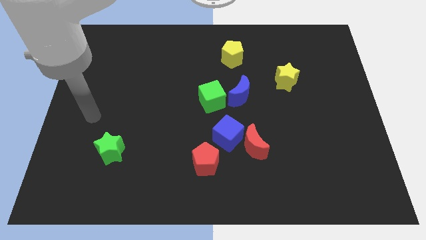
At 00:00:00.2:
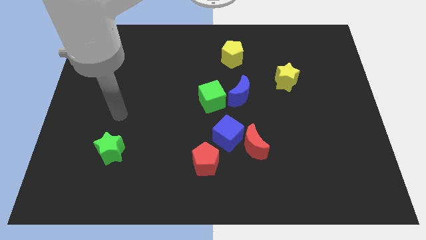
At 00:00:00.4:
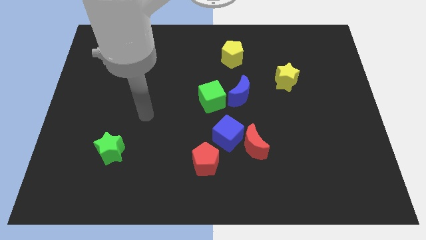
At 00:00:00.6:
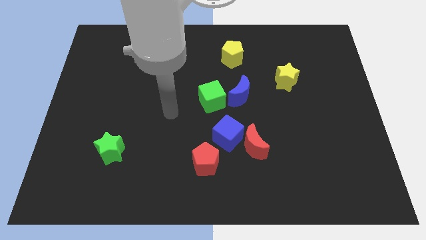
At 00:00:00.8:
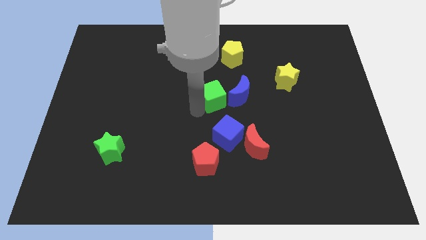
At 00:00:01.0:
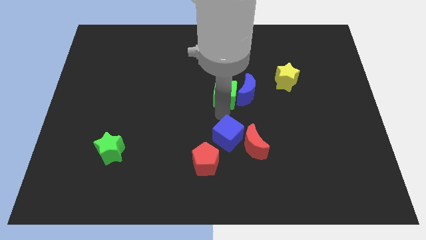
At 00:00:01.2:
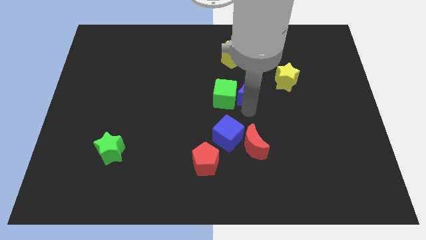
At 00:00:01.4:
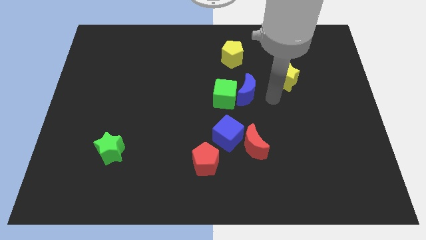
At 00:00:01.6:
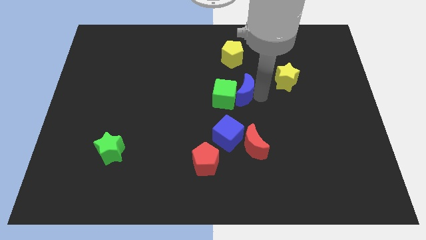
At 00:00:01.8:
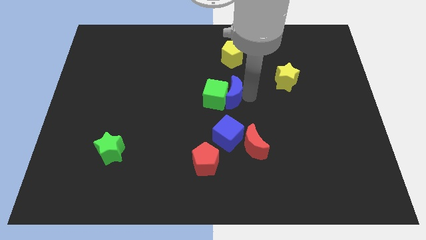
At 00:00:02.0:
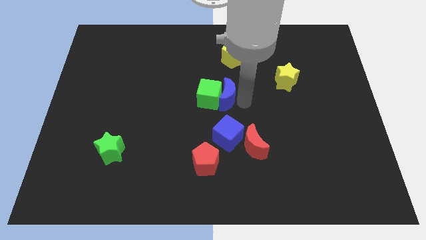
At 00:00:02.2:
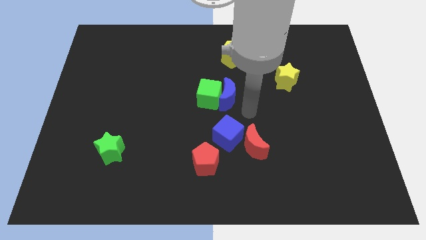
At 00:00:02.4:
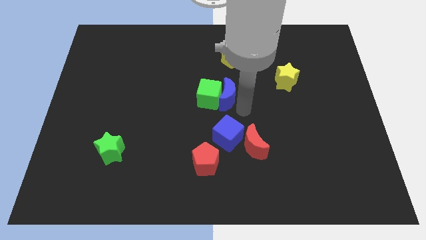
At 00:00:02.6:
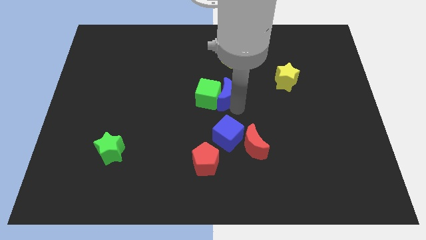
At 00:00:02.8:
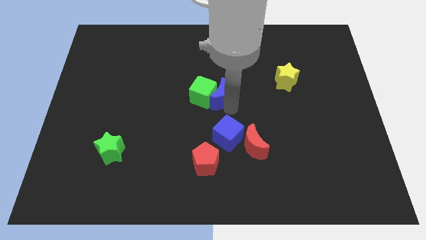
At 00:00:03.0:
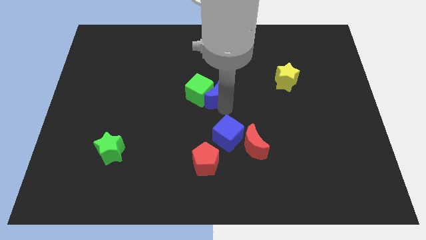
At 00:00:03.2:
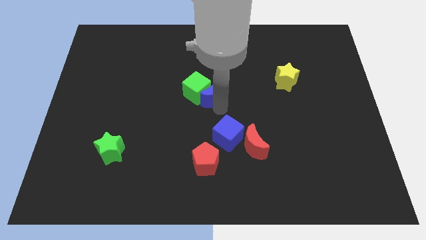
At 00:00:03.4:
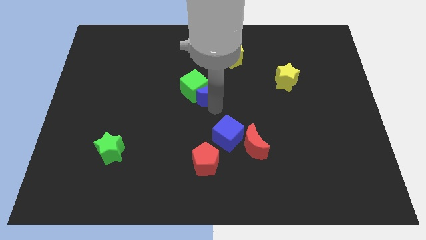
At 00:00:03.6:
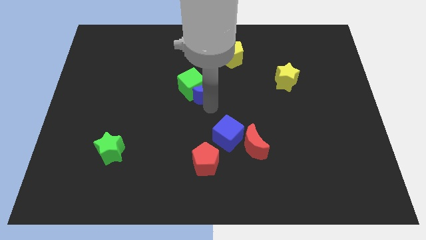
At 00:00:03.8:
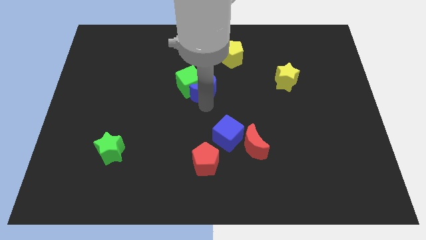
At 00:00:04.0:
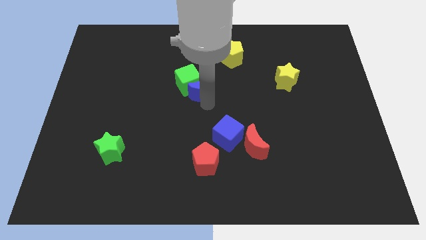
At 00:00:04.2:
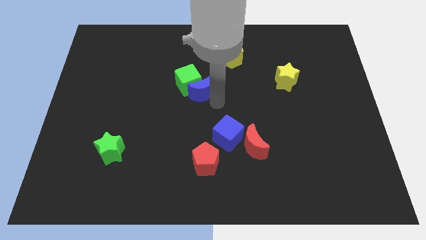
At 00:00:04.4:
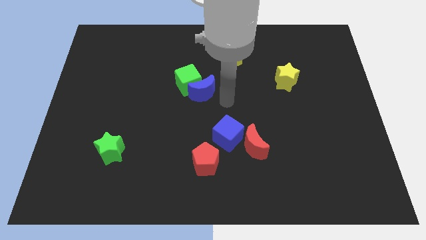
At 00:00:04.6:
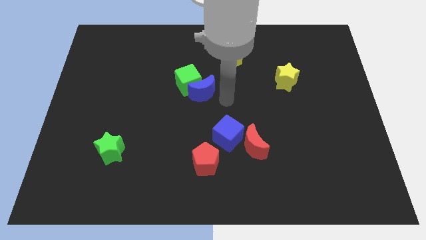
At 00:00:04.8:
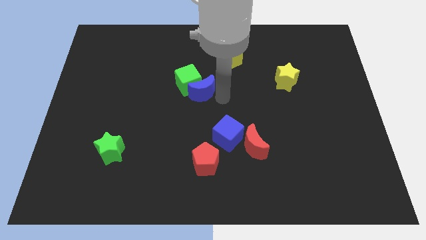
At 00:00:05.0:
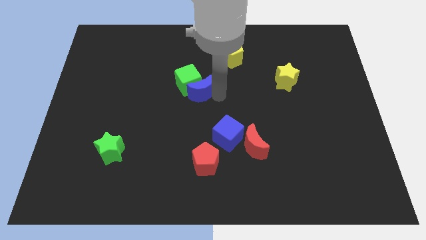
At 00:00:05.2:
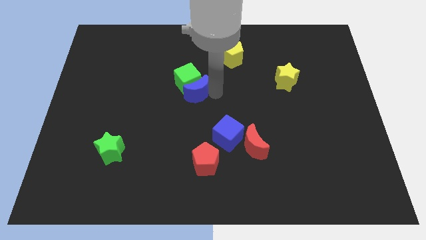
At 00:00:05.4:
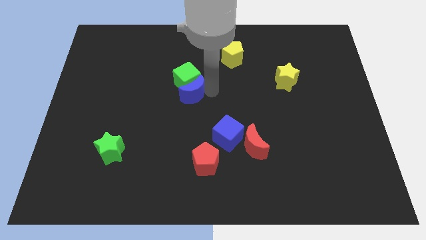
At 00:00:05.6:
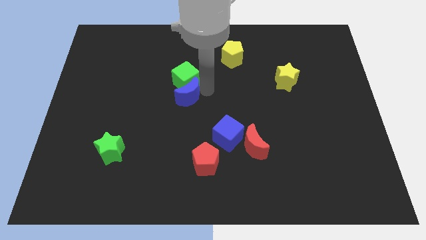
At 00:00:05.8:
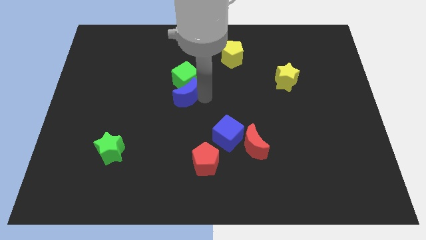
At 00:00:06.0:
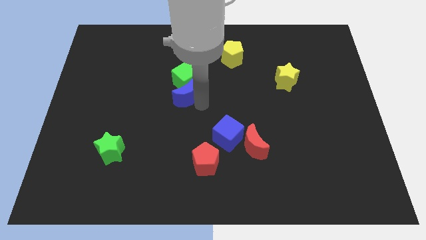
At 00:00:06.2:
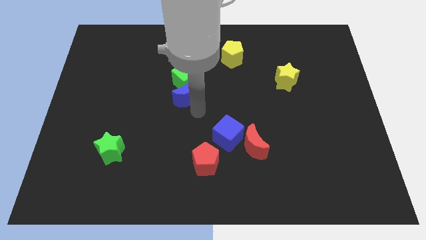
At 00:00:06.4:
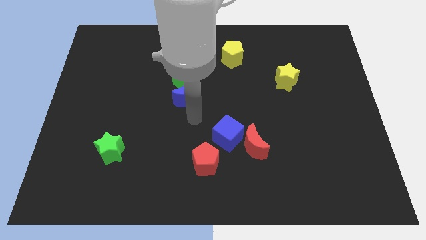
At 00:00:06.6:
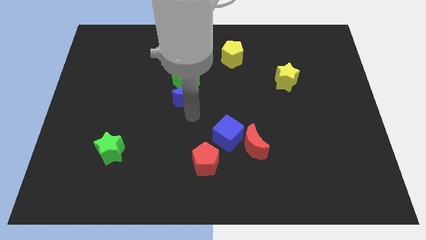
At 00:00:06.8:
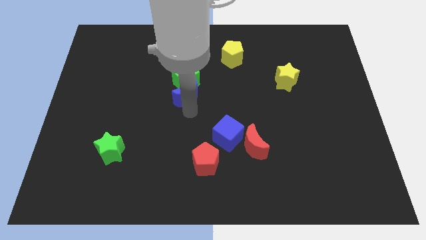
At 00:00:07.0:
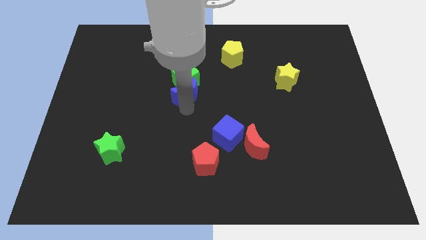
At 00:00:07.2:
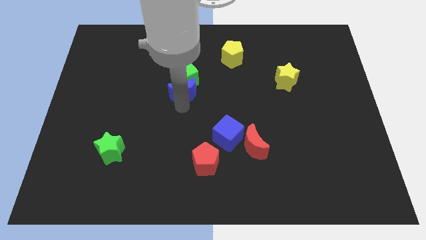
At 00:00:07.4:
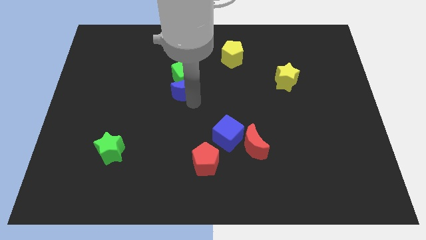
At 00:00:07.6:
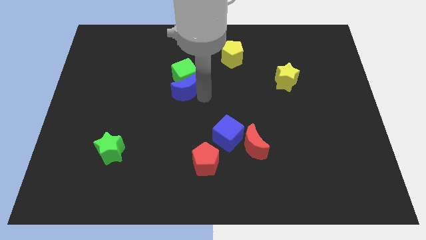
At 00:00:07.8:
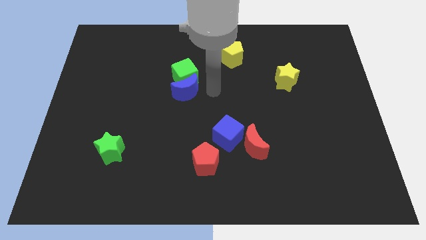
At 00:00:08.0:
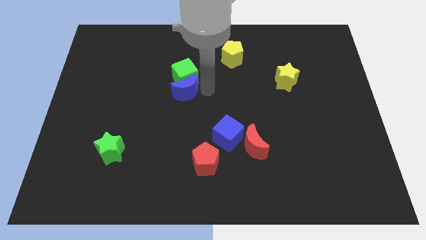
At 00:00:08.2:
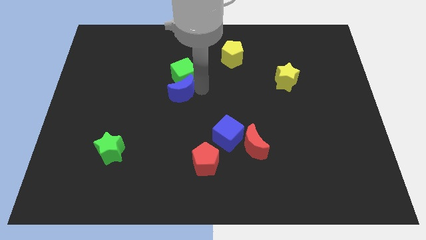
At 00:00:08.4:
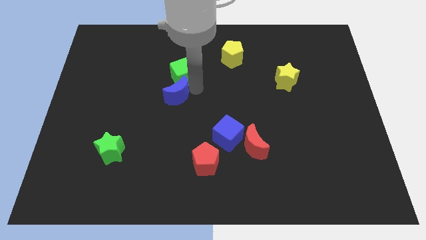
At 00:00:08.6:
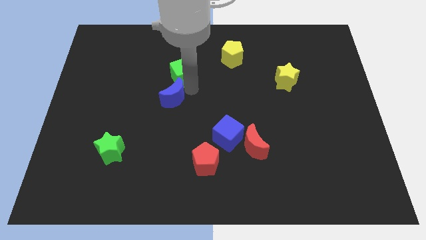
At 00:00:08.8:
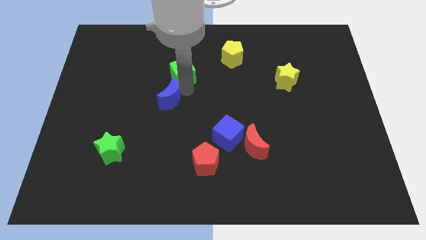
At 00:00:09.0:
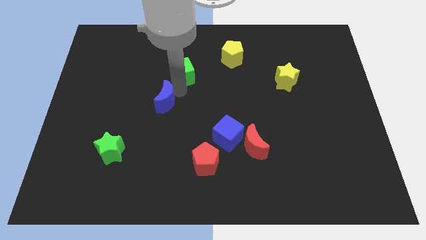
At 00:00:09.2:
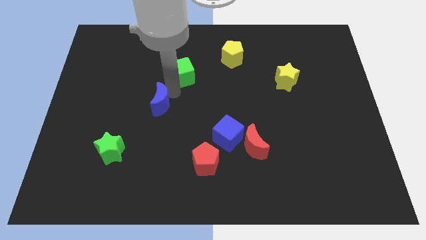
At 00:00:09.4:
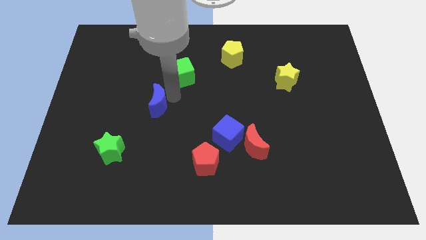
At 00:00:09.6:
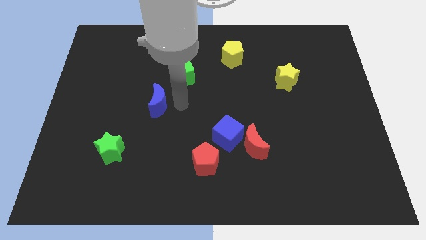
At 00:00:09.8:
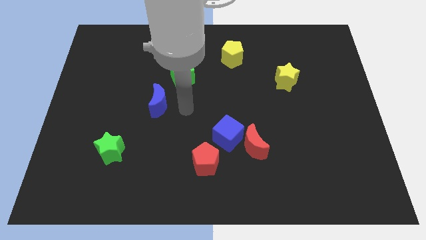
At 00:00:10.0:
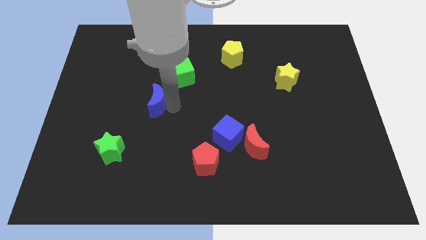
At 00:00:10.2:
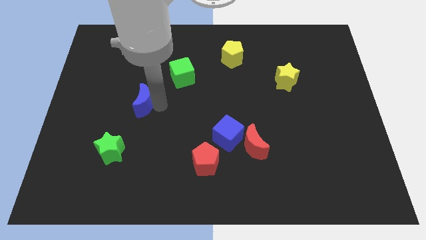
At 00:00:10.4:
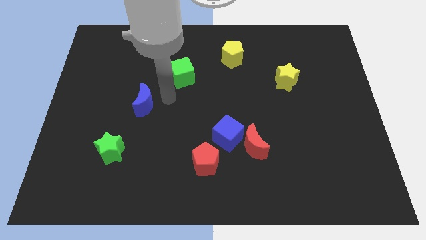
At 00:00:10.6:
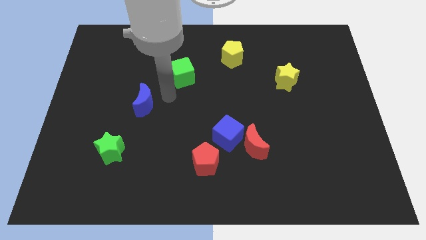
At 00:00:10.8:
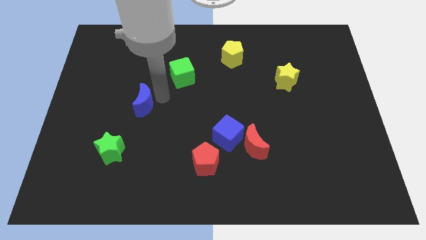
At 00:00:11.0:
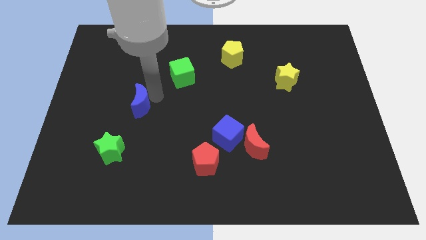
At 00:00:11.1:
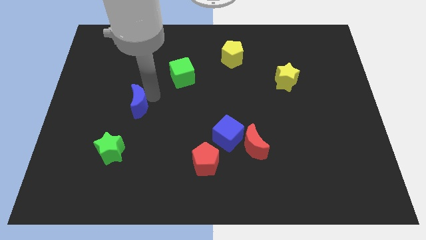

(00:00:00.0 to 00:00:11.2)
move the blue moon above the green star
